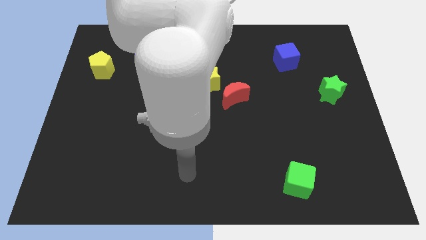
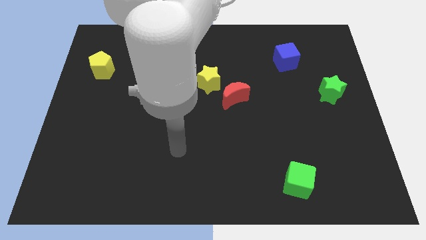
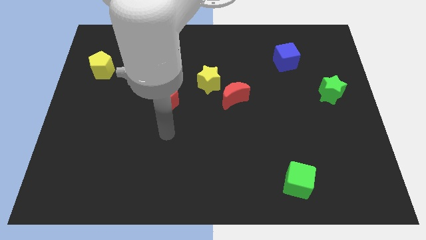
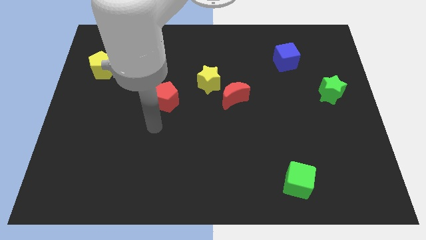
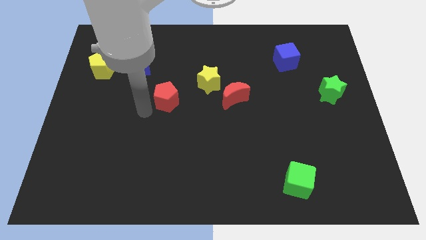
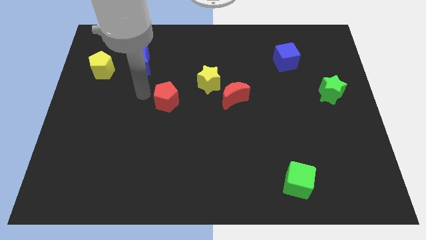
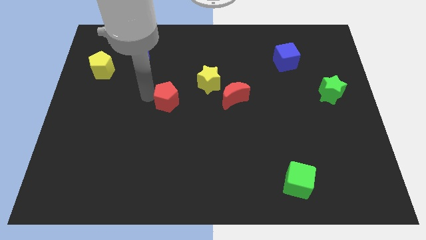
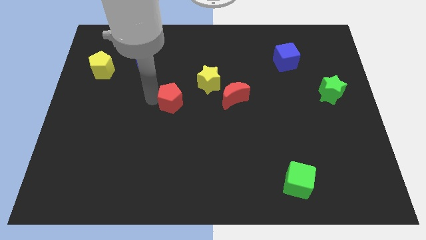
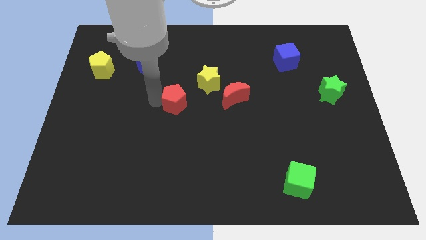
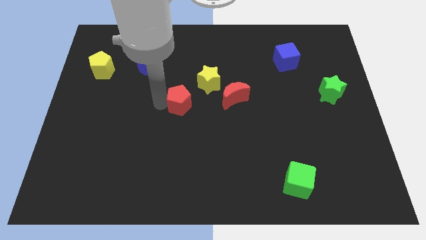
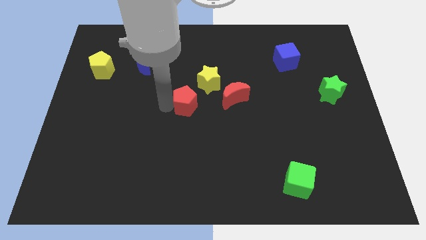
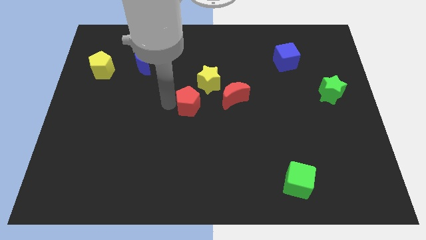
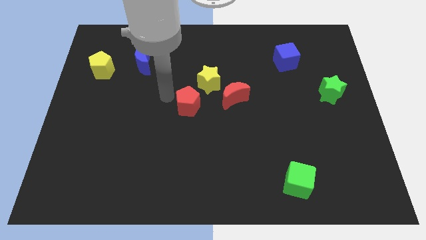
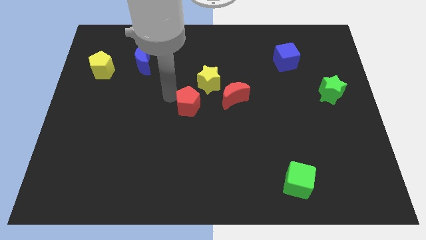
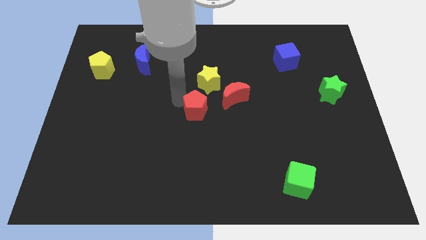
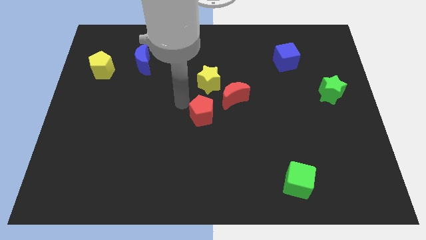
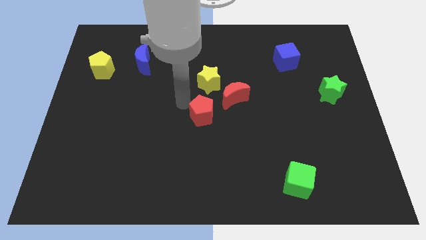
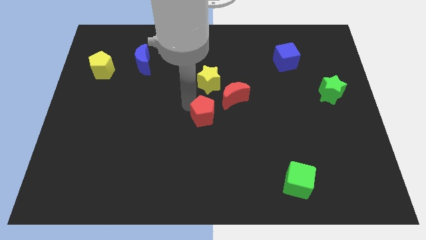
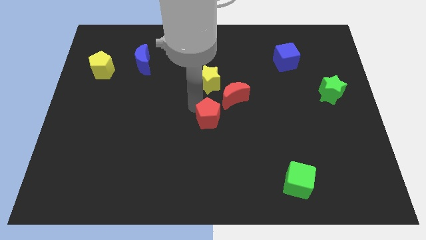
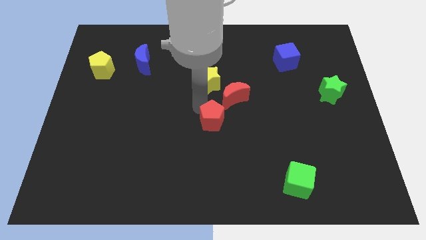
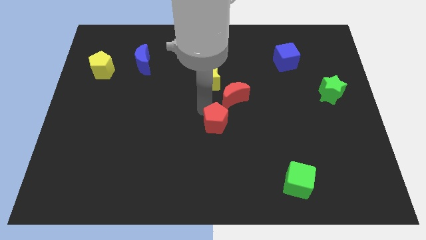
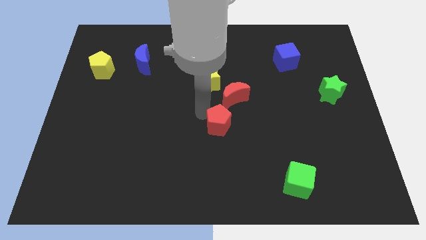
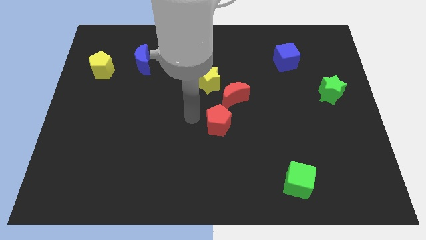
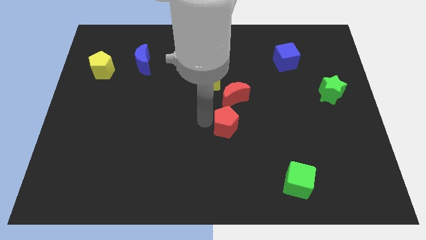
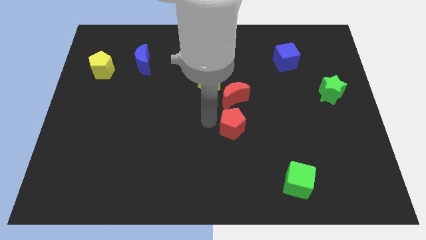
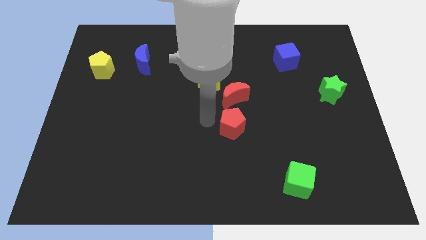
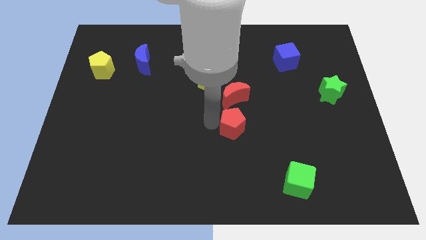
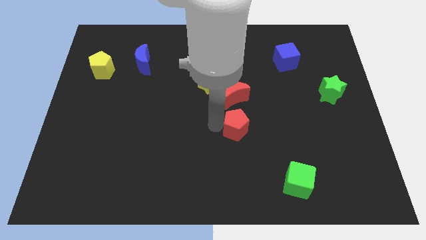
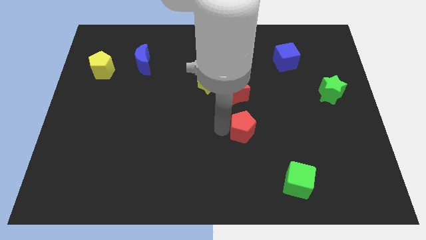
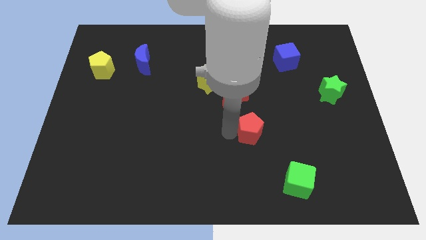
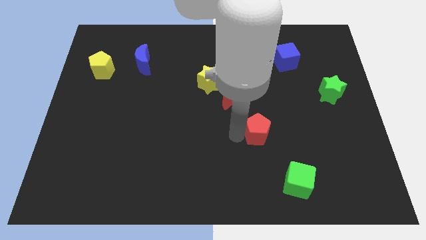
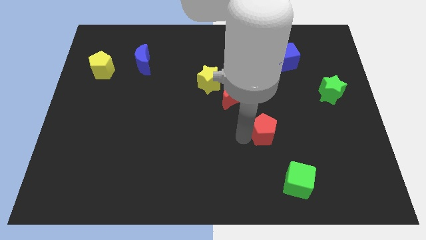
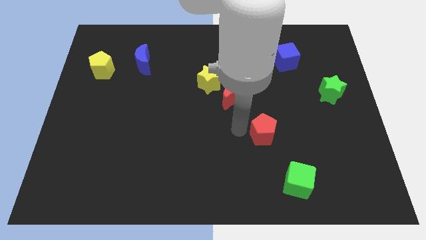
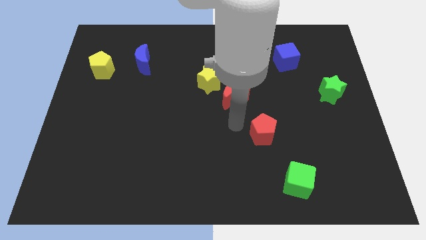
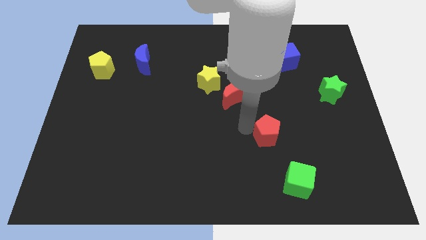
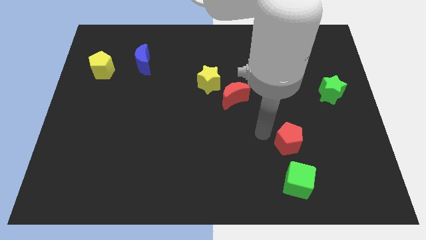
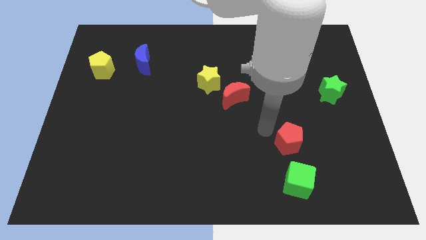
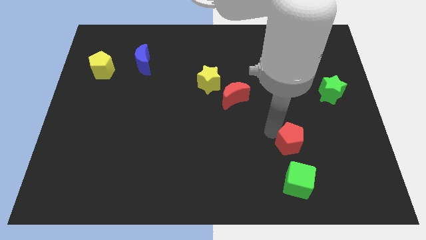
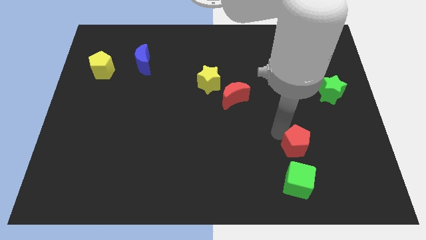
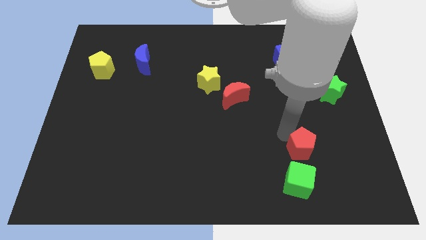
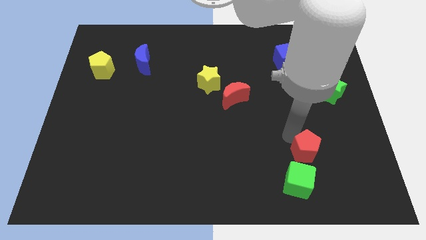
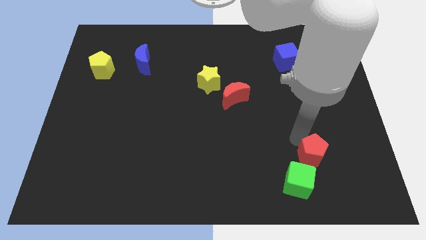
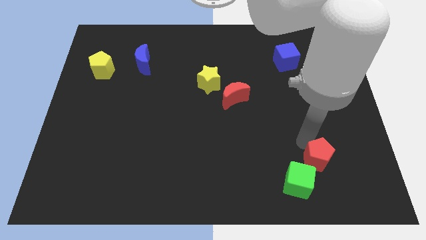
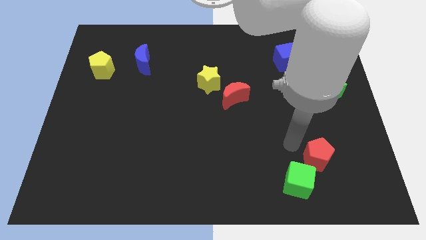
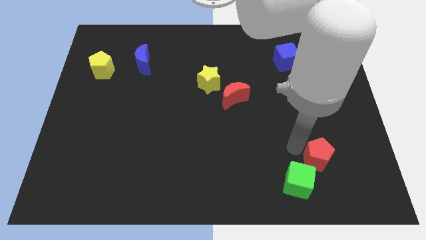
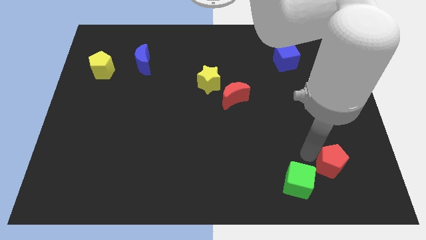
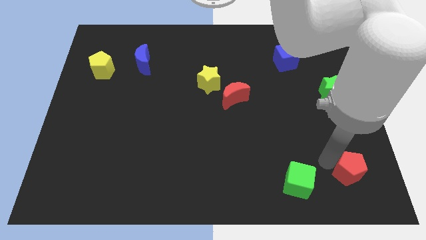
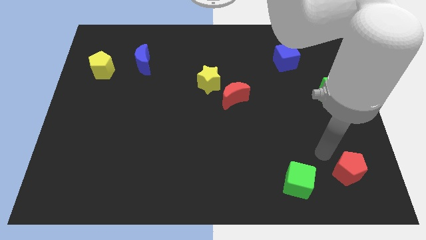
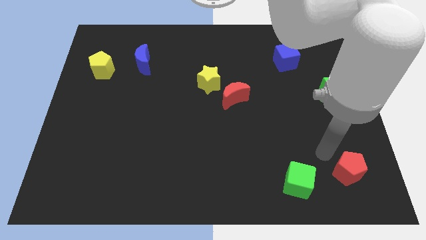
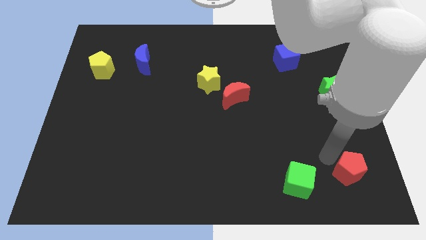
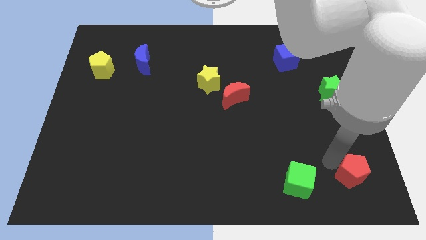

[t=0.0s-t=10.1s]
slide the red pentagon to the bottom right corner
